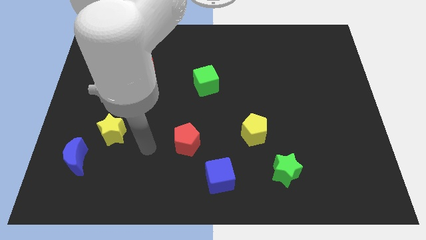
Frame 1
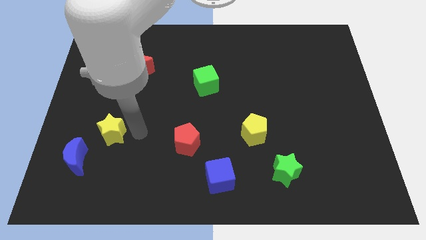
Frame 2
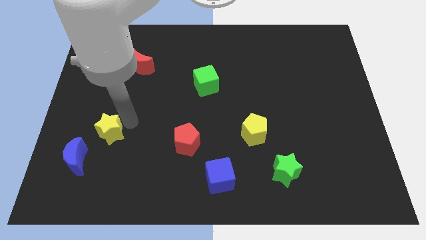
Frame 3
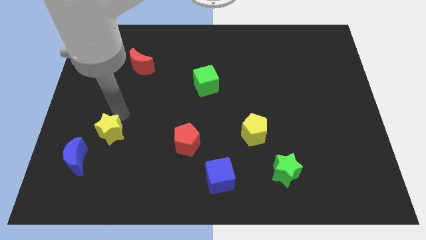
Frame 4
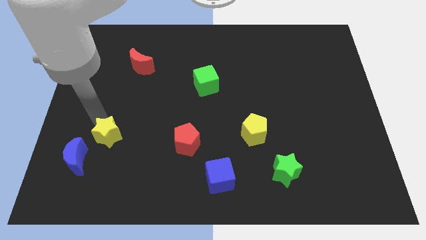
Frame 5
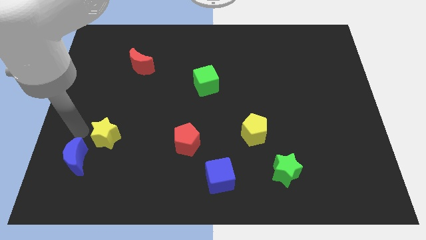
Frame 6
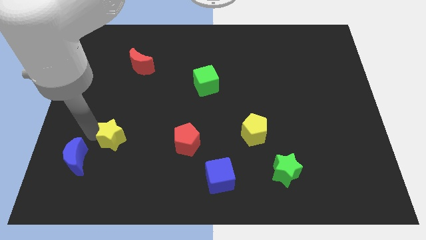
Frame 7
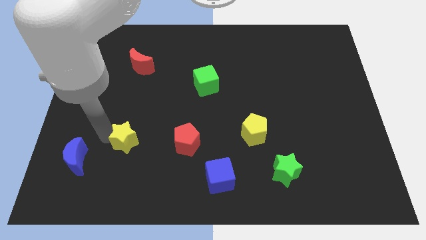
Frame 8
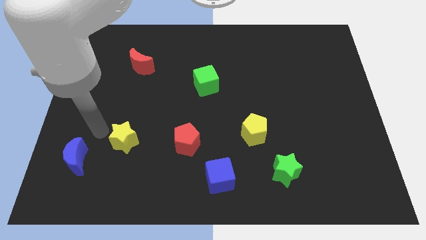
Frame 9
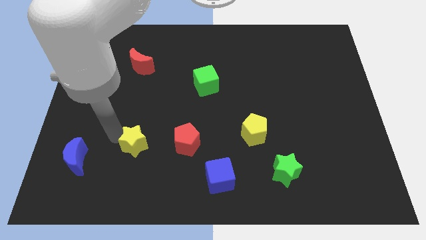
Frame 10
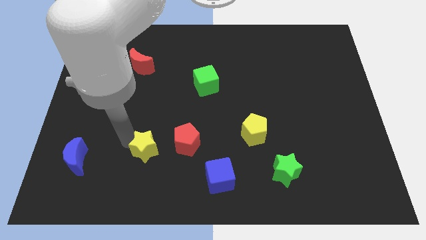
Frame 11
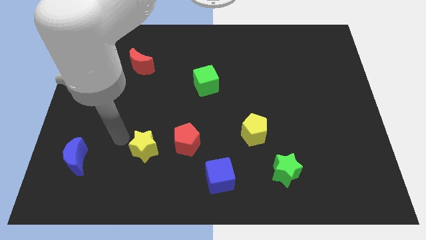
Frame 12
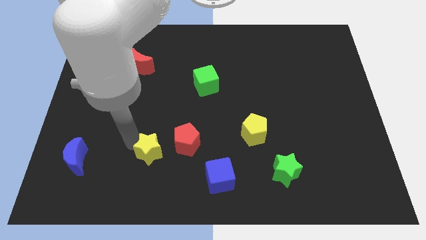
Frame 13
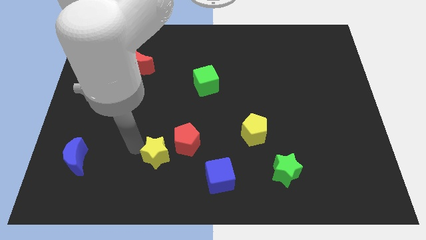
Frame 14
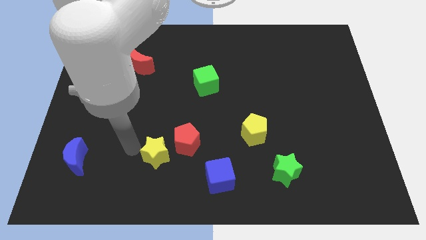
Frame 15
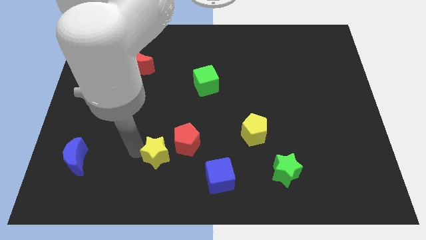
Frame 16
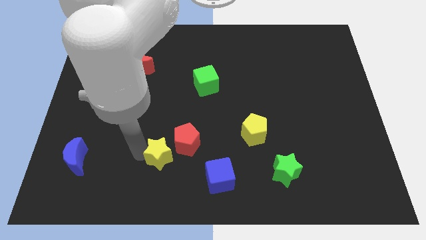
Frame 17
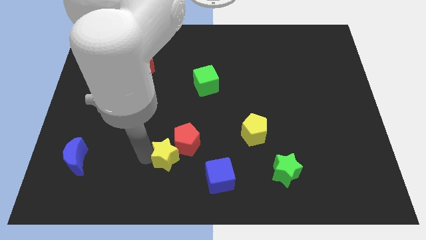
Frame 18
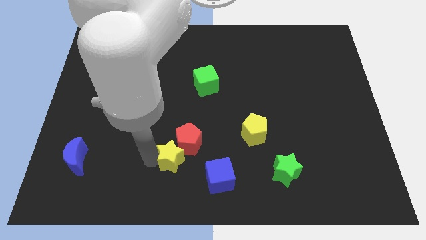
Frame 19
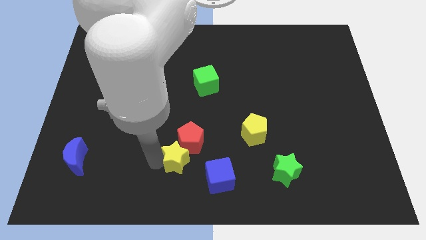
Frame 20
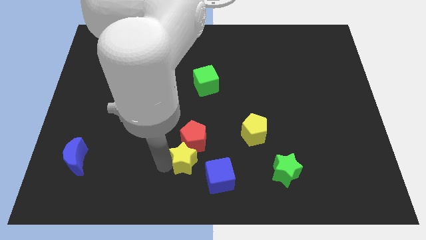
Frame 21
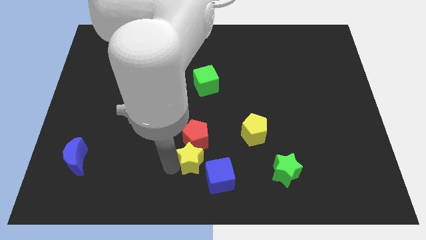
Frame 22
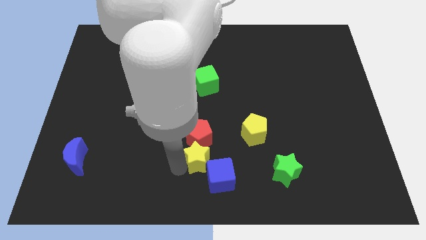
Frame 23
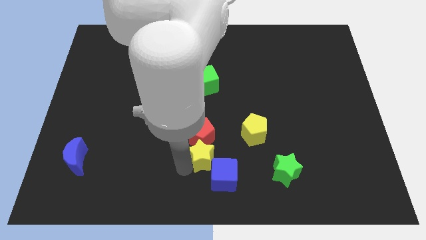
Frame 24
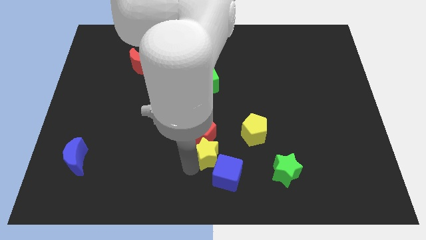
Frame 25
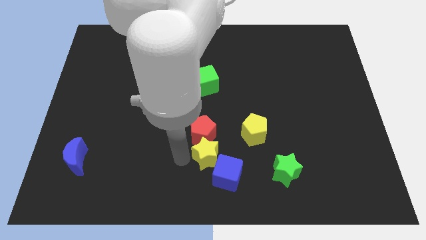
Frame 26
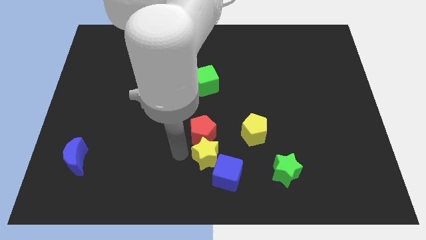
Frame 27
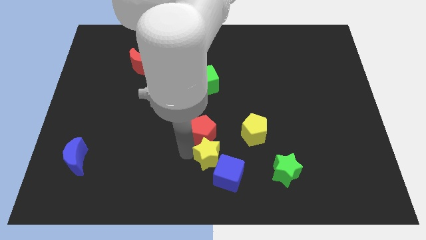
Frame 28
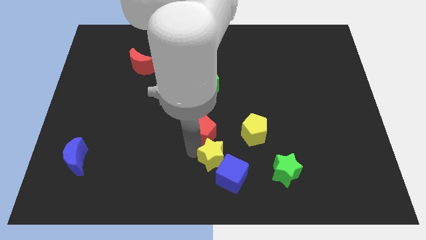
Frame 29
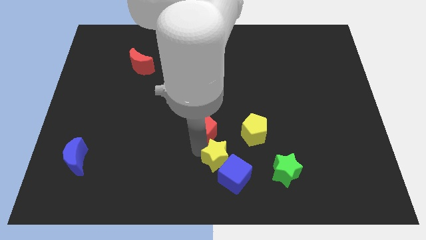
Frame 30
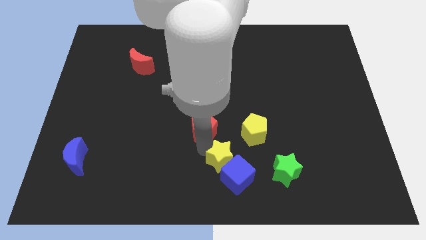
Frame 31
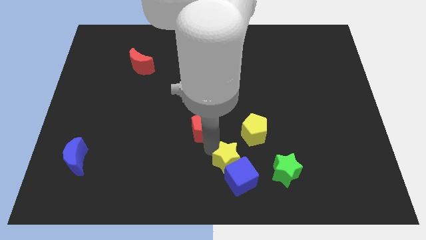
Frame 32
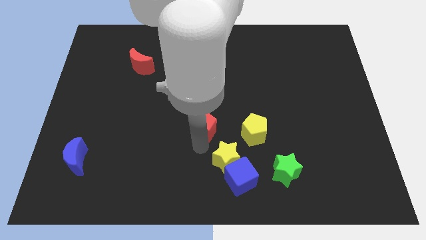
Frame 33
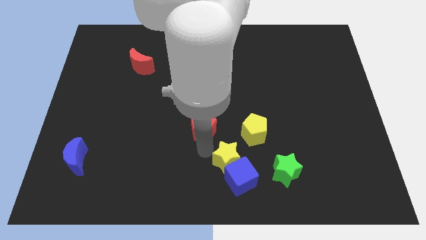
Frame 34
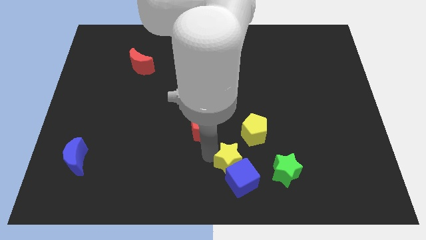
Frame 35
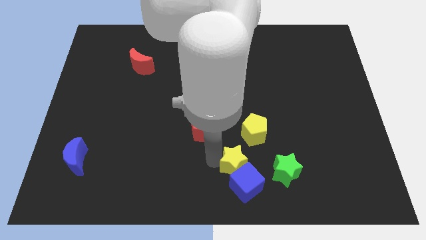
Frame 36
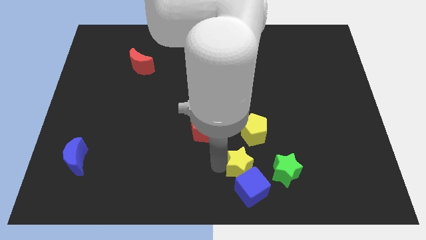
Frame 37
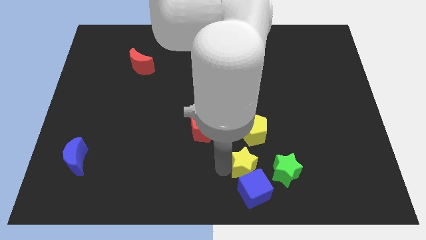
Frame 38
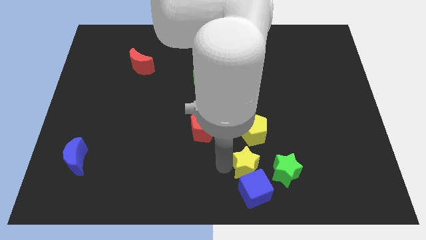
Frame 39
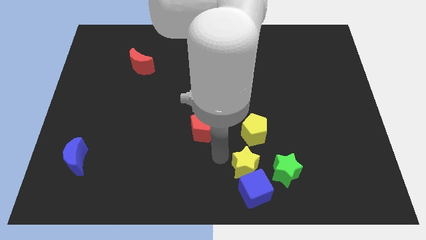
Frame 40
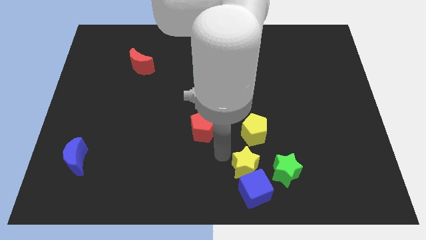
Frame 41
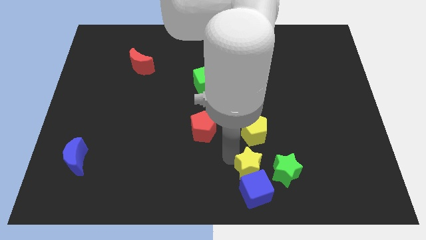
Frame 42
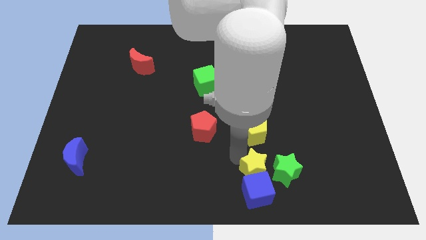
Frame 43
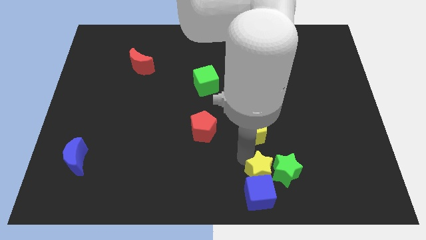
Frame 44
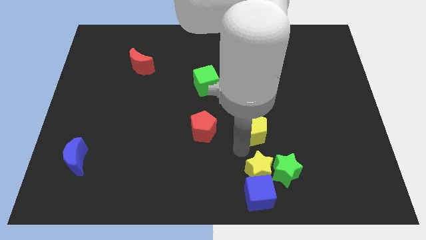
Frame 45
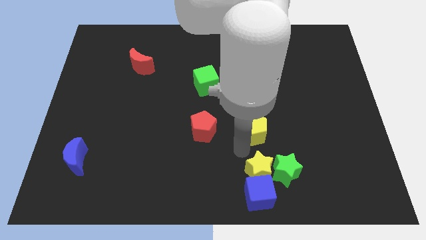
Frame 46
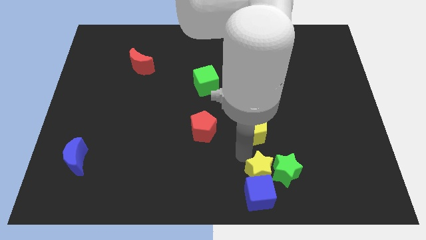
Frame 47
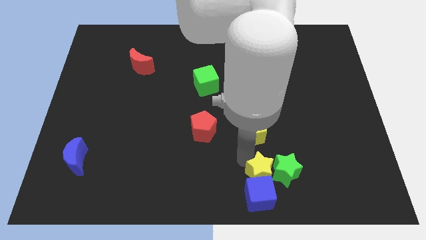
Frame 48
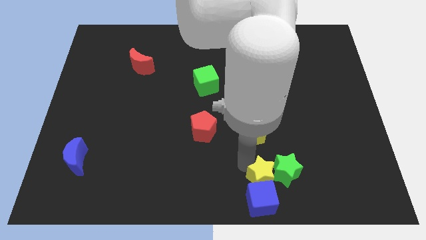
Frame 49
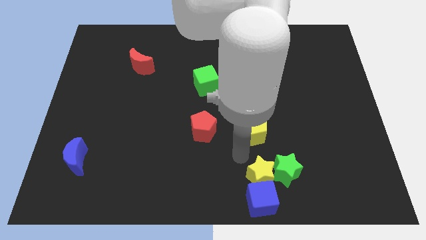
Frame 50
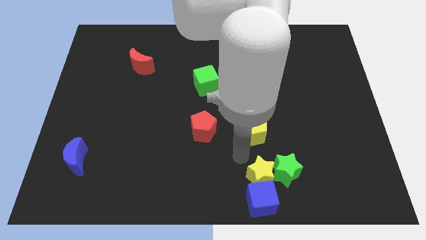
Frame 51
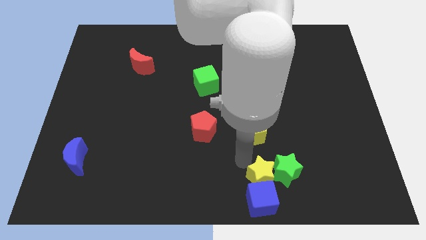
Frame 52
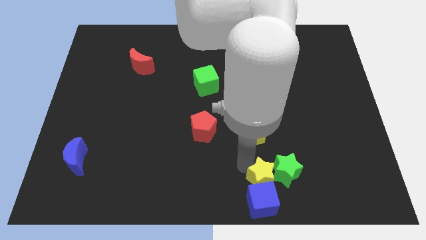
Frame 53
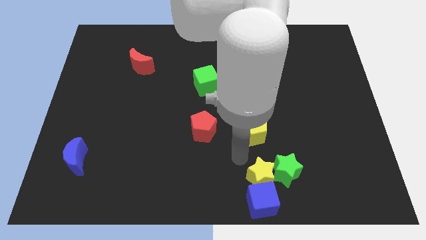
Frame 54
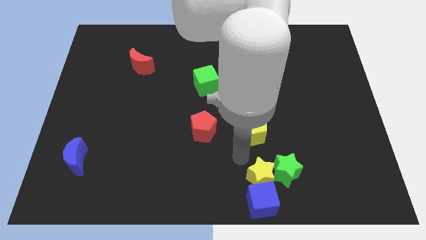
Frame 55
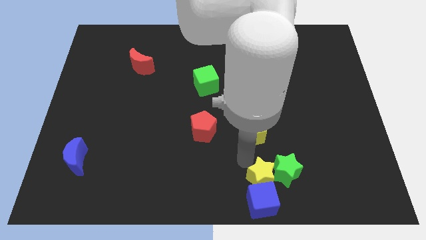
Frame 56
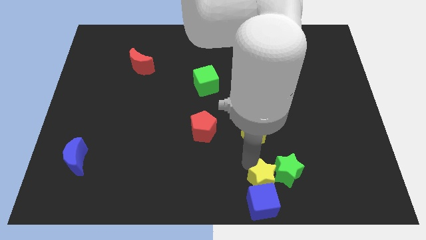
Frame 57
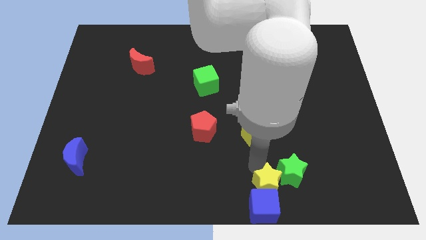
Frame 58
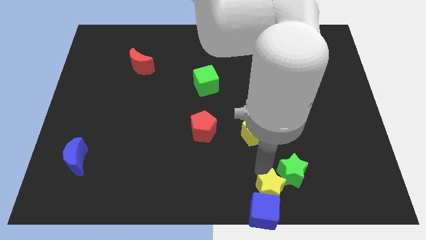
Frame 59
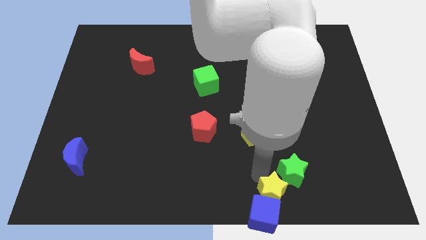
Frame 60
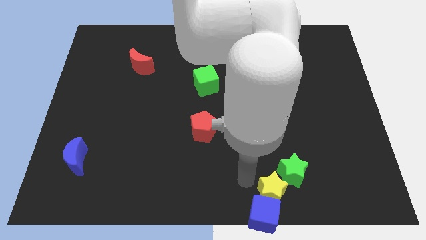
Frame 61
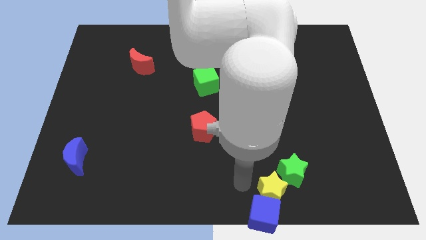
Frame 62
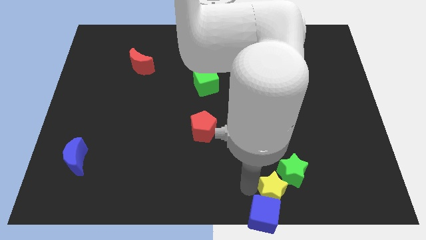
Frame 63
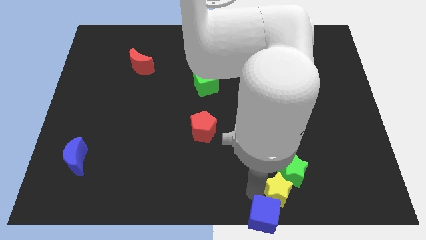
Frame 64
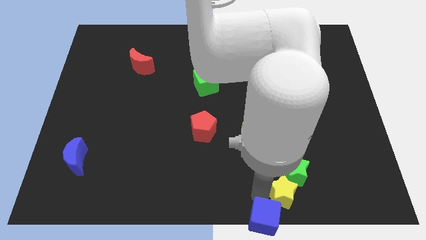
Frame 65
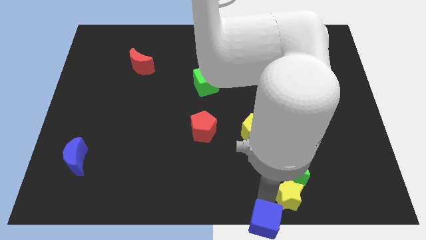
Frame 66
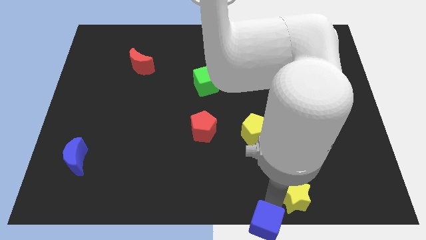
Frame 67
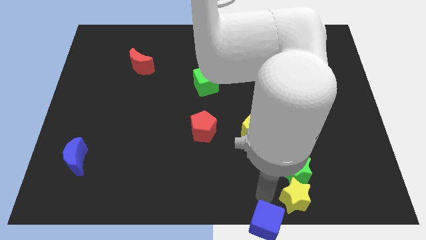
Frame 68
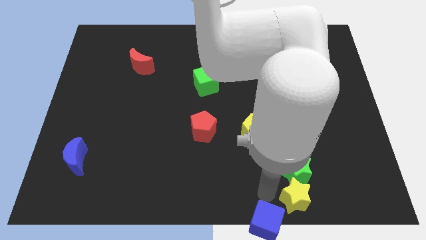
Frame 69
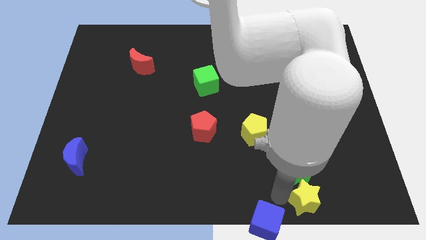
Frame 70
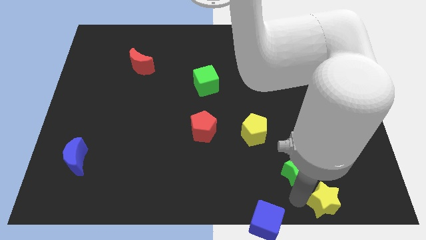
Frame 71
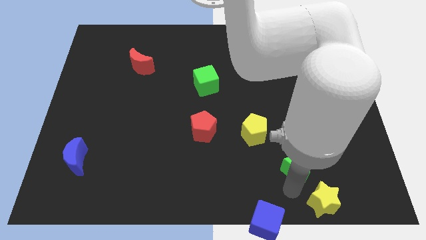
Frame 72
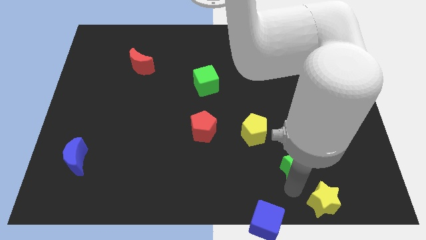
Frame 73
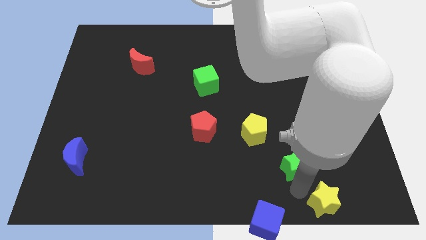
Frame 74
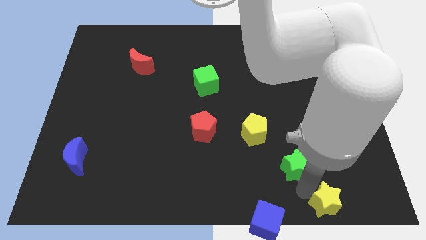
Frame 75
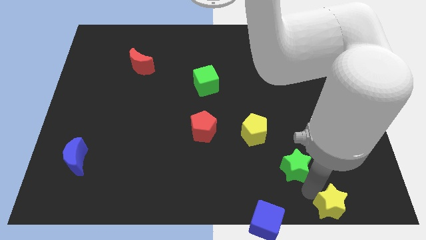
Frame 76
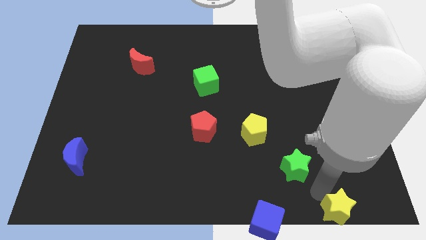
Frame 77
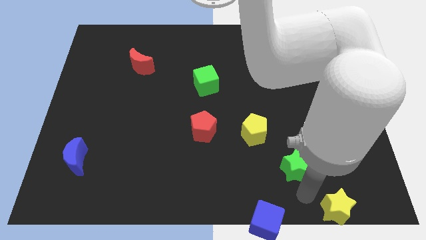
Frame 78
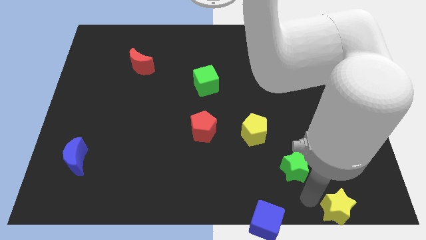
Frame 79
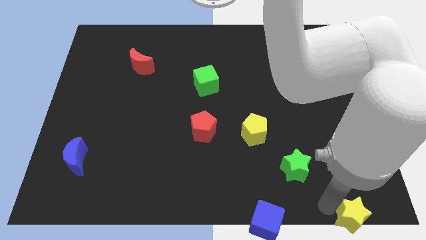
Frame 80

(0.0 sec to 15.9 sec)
push the yellow star to the bottom right
